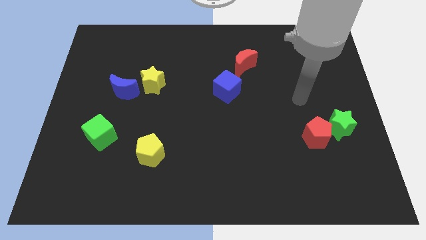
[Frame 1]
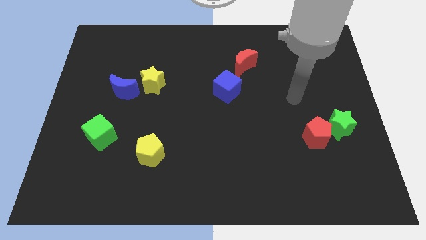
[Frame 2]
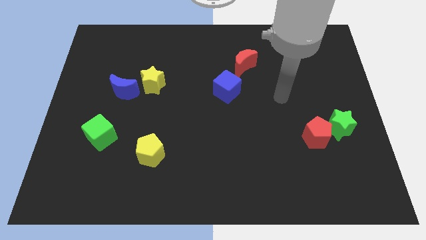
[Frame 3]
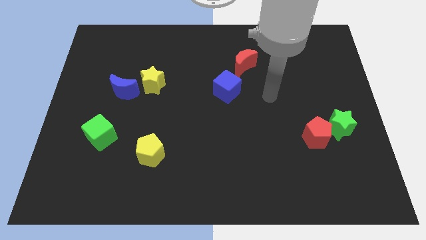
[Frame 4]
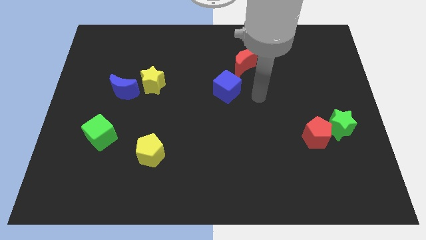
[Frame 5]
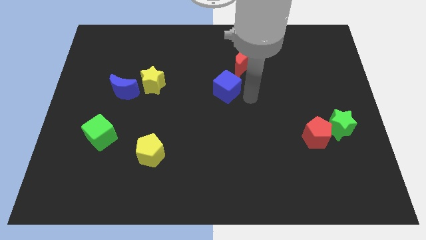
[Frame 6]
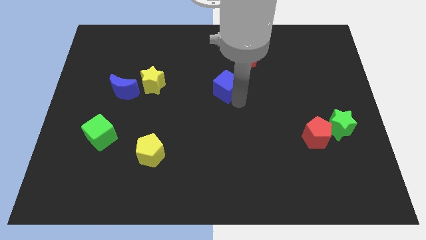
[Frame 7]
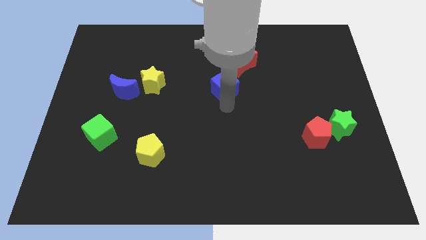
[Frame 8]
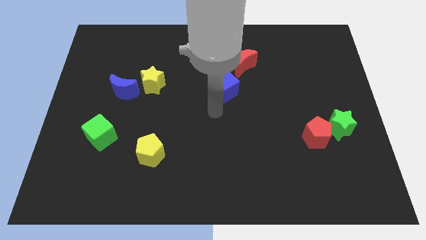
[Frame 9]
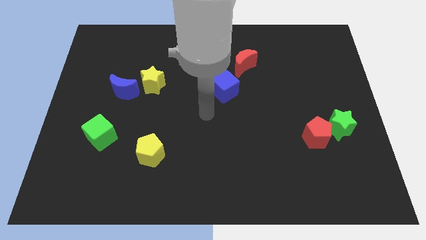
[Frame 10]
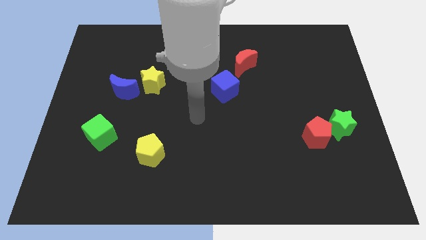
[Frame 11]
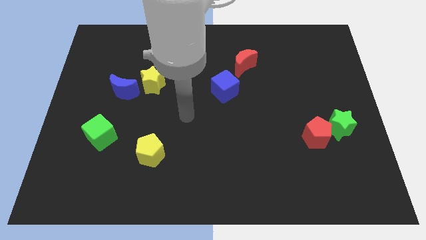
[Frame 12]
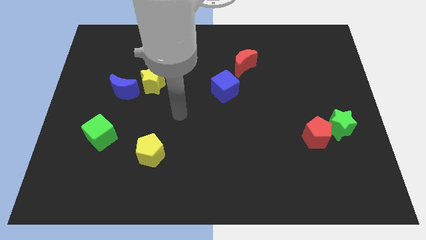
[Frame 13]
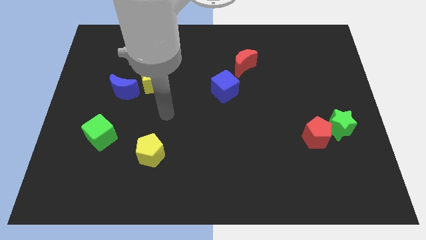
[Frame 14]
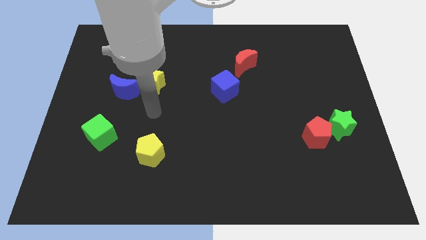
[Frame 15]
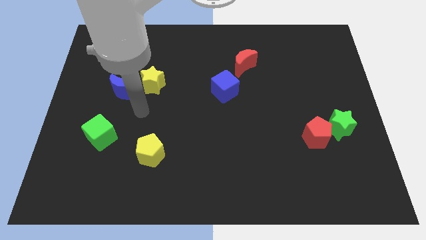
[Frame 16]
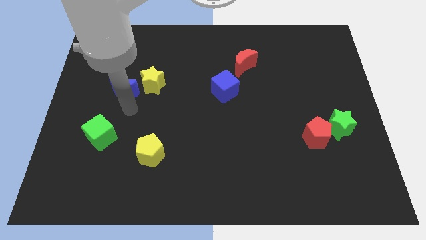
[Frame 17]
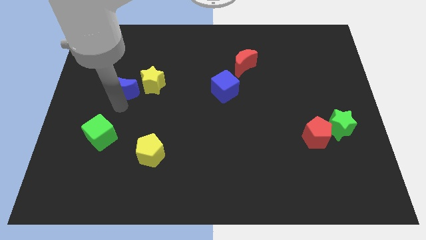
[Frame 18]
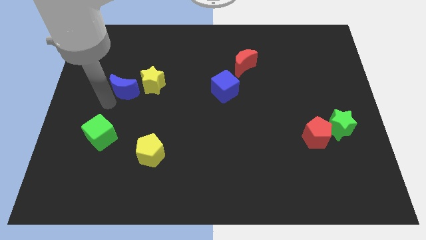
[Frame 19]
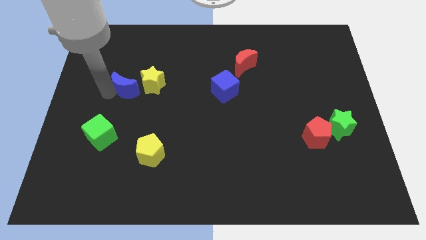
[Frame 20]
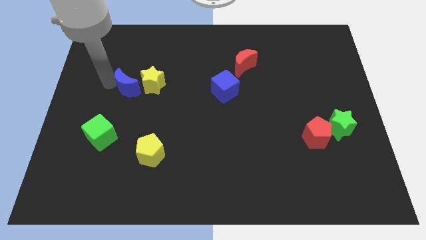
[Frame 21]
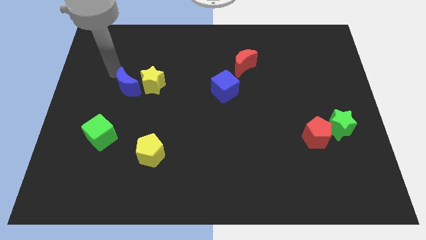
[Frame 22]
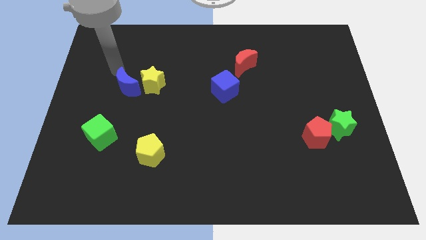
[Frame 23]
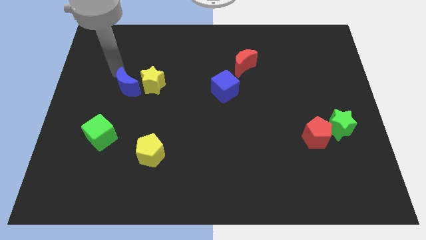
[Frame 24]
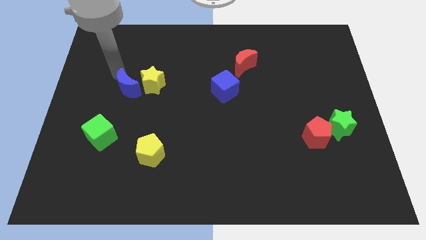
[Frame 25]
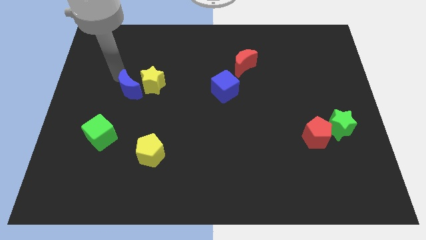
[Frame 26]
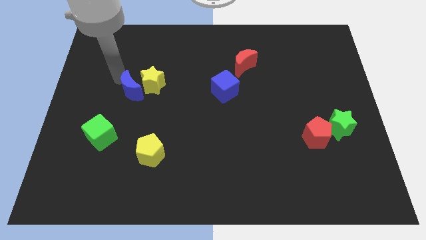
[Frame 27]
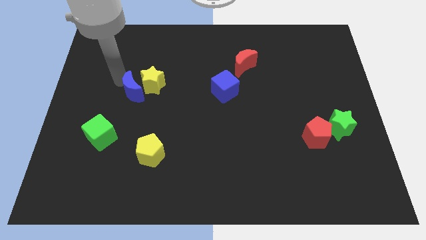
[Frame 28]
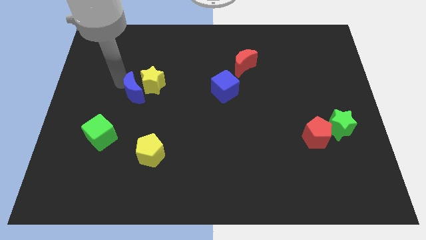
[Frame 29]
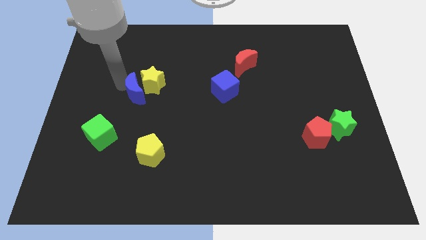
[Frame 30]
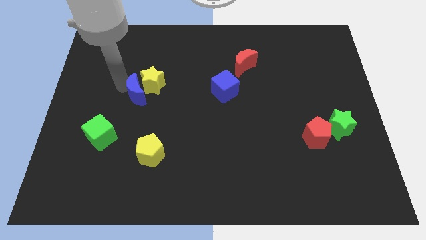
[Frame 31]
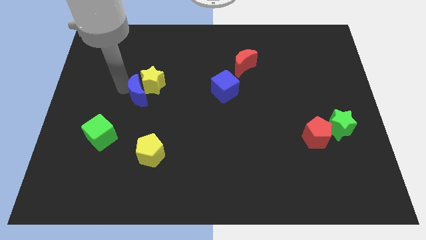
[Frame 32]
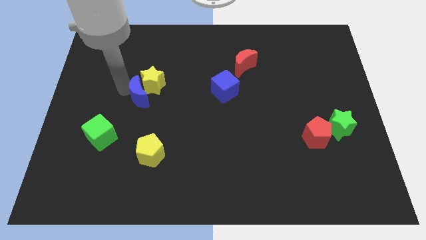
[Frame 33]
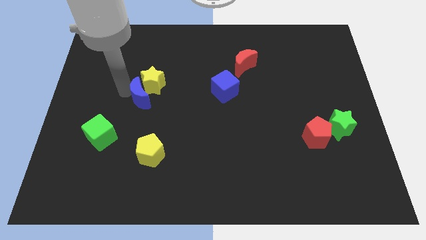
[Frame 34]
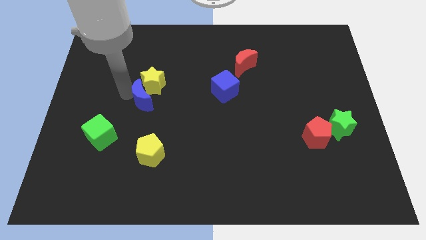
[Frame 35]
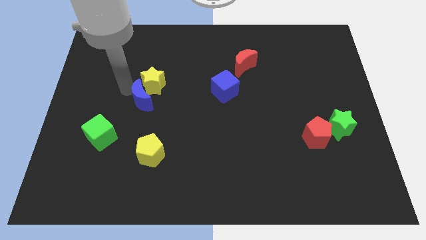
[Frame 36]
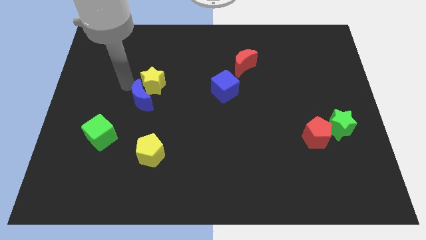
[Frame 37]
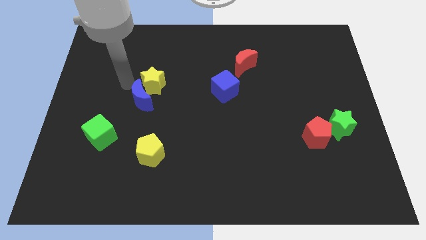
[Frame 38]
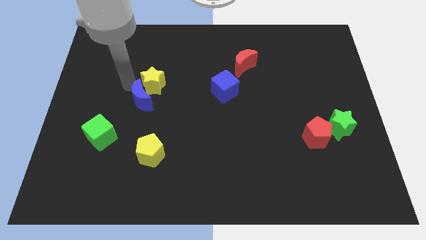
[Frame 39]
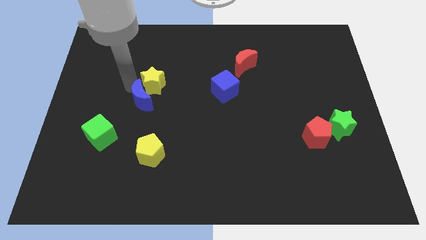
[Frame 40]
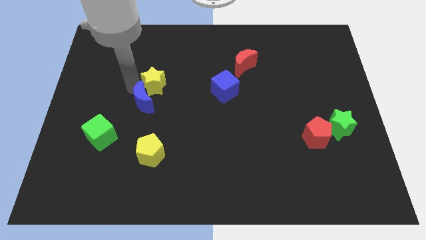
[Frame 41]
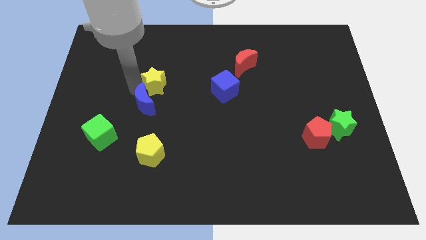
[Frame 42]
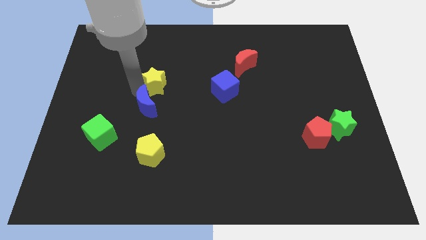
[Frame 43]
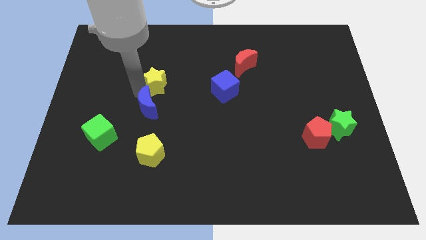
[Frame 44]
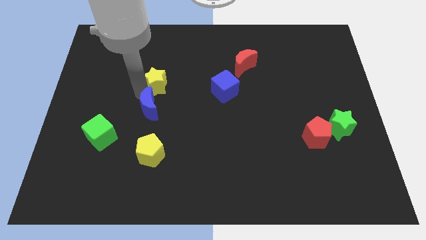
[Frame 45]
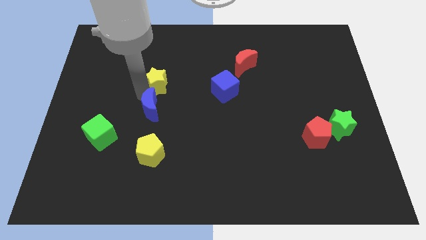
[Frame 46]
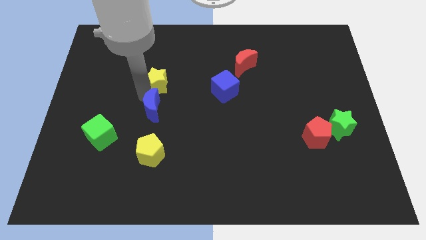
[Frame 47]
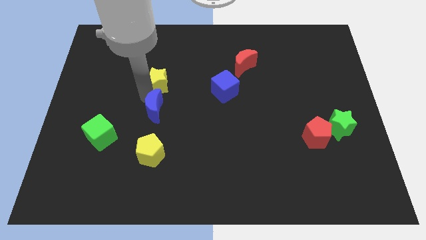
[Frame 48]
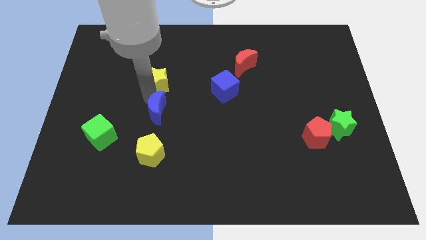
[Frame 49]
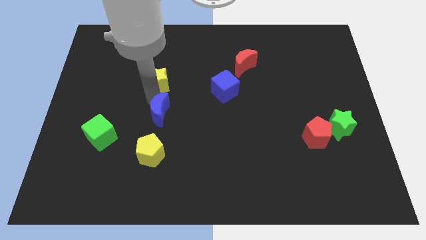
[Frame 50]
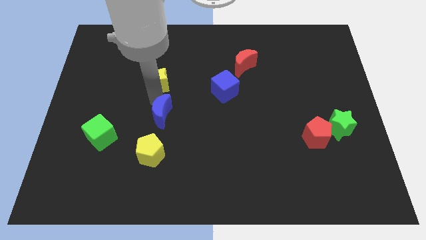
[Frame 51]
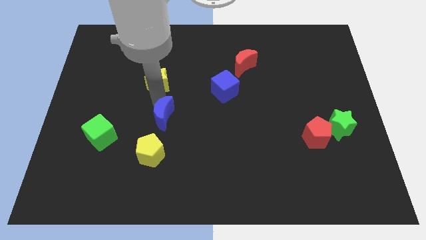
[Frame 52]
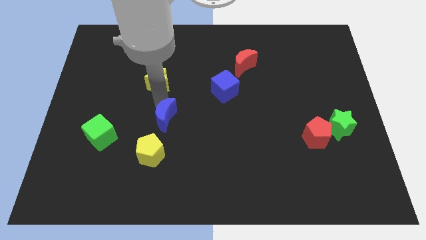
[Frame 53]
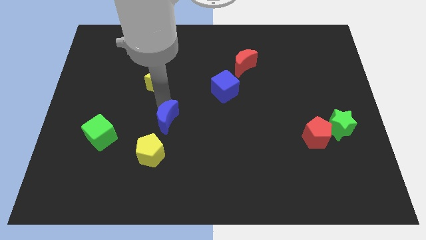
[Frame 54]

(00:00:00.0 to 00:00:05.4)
put the blue moon to the top right side of the yellow pentagon

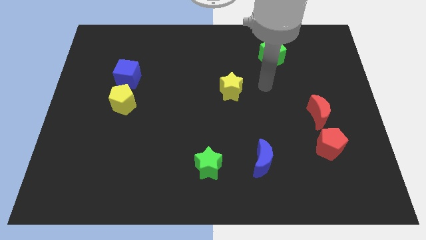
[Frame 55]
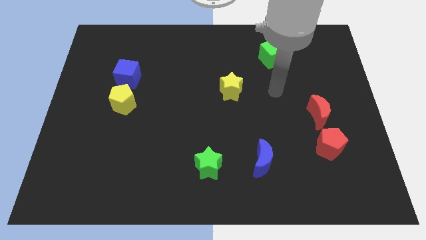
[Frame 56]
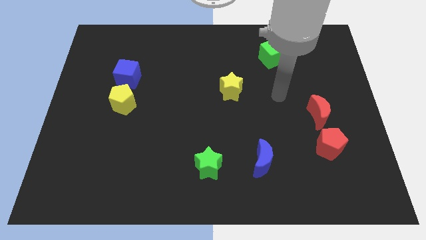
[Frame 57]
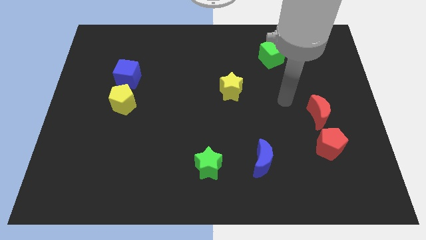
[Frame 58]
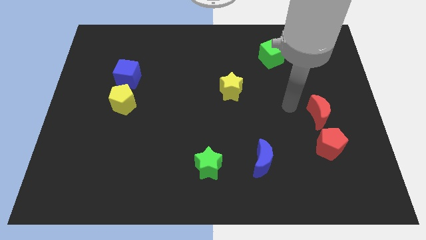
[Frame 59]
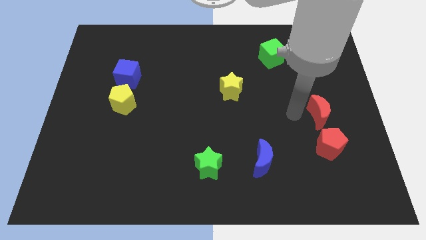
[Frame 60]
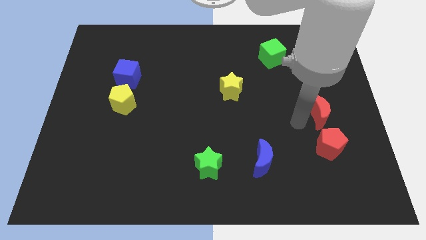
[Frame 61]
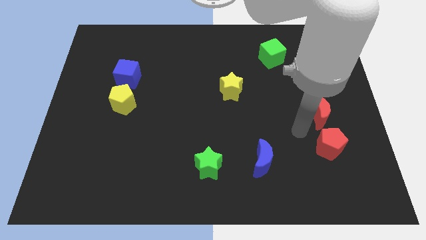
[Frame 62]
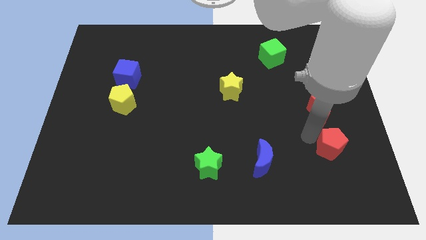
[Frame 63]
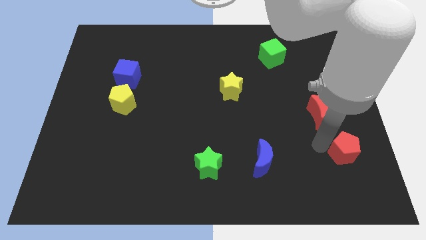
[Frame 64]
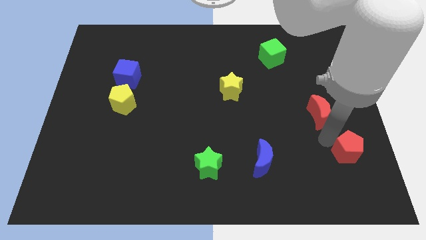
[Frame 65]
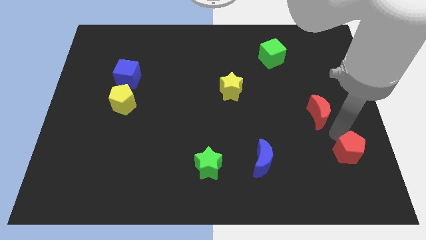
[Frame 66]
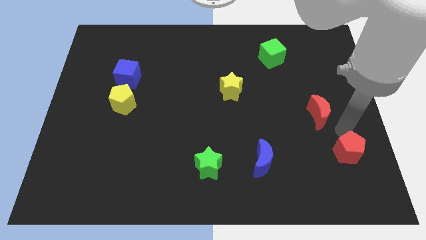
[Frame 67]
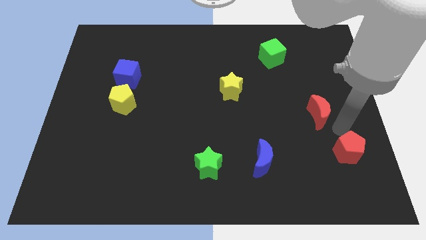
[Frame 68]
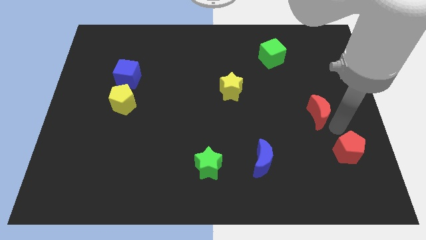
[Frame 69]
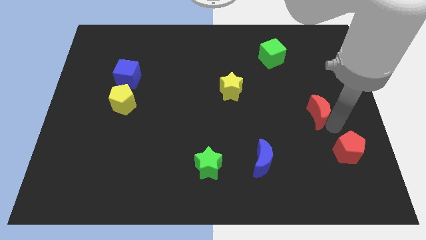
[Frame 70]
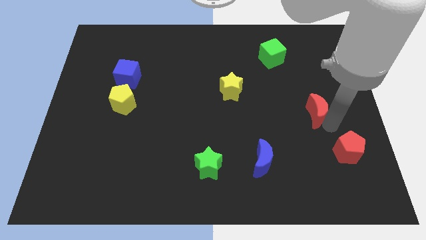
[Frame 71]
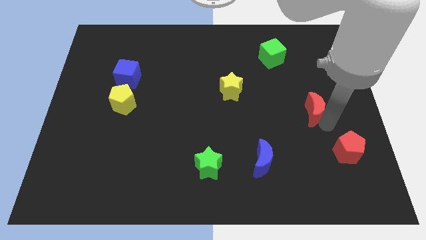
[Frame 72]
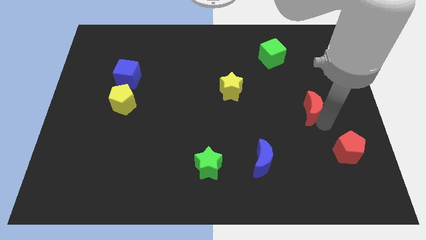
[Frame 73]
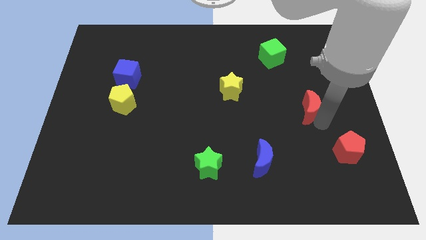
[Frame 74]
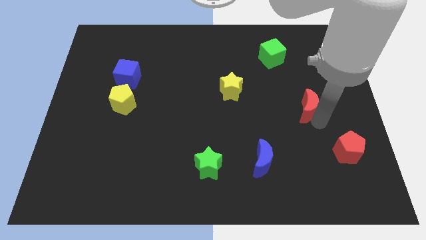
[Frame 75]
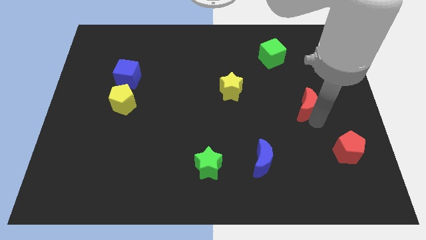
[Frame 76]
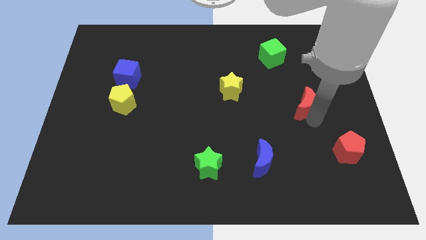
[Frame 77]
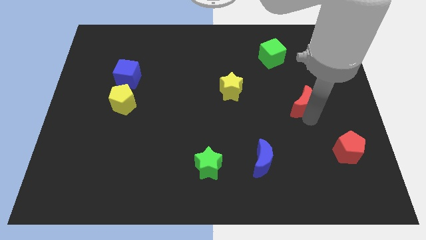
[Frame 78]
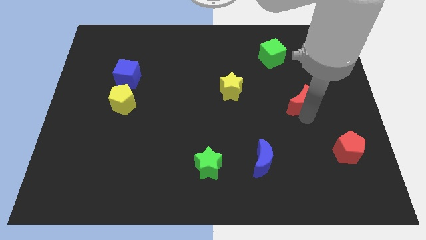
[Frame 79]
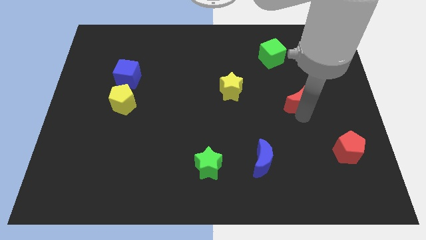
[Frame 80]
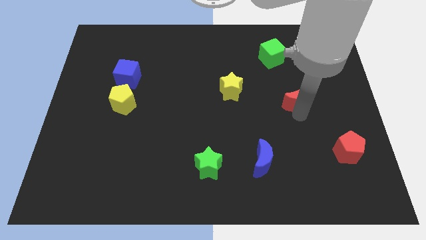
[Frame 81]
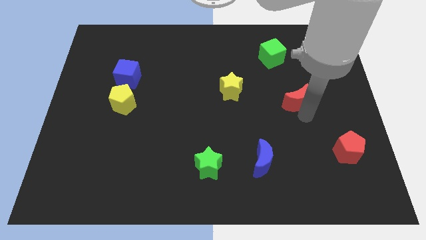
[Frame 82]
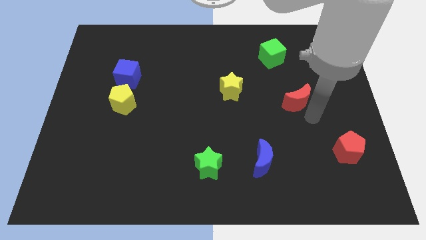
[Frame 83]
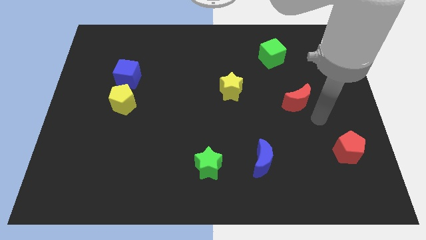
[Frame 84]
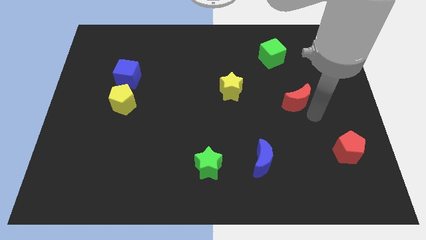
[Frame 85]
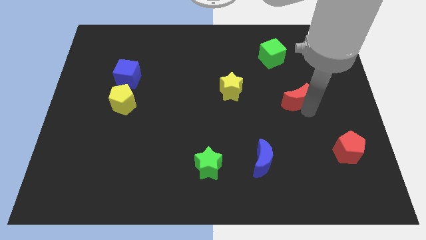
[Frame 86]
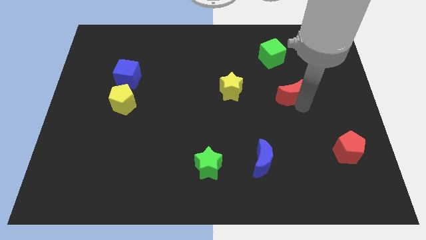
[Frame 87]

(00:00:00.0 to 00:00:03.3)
slide the red moon below the green cube
